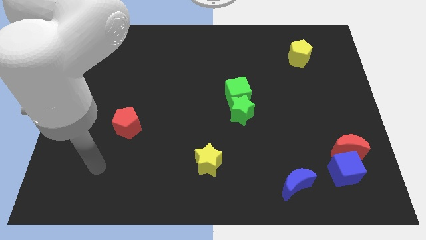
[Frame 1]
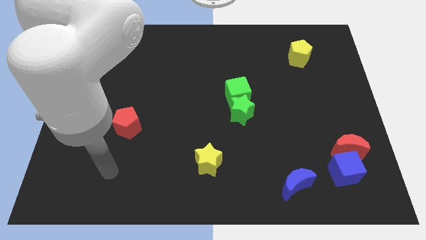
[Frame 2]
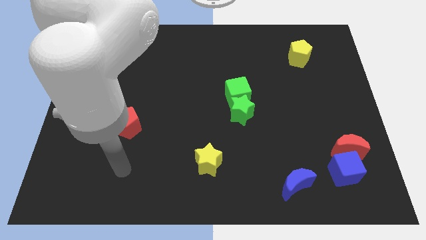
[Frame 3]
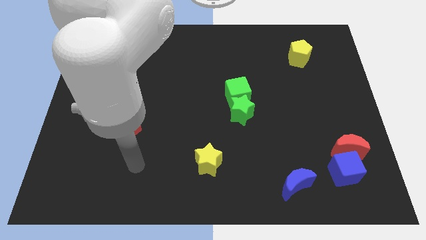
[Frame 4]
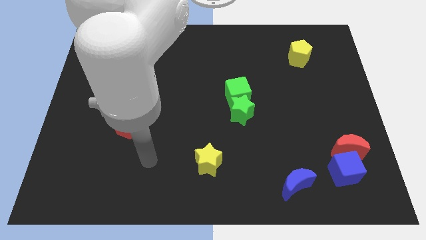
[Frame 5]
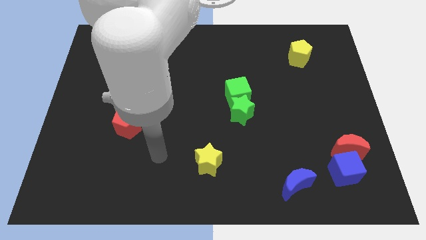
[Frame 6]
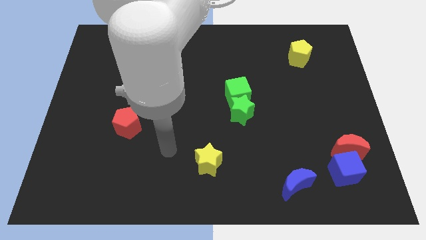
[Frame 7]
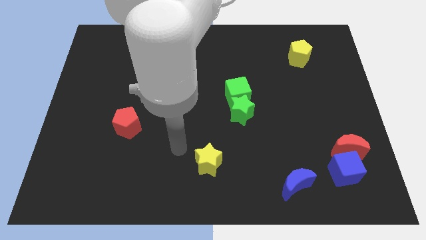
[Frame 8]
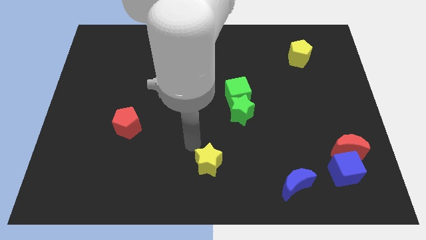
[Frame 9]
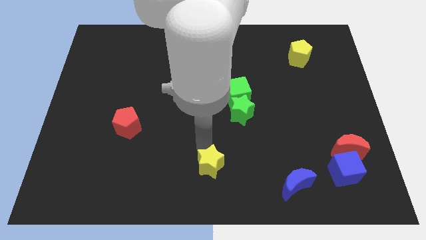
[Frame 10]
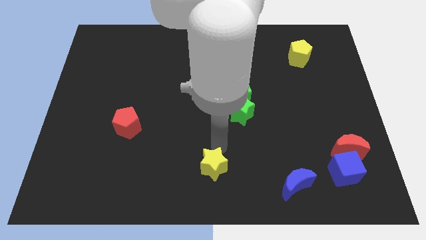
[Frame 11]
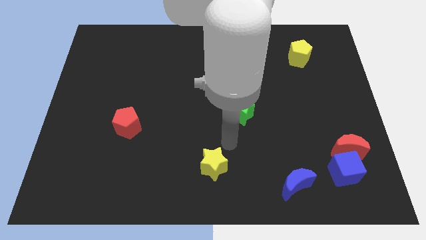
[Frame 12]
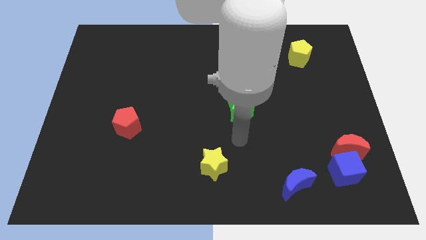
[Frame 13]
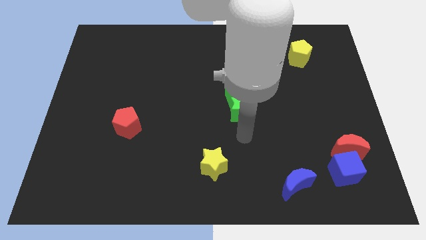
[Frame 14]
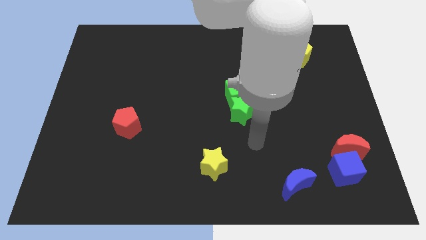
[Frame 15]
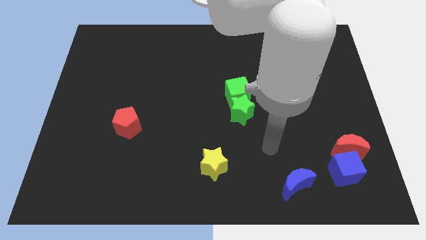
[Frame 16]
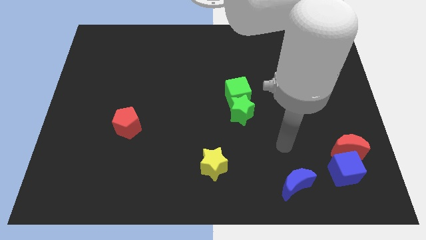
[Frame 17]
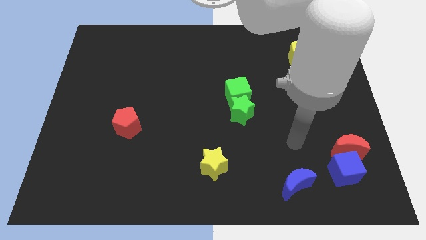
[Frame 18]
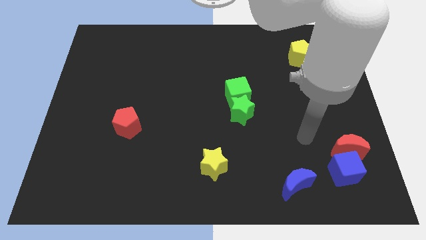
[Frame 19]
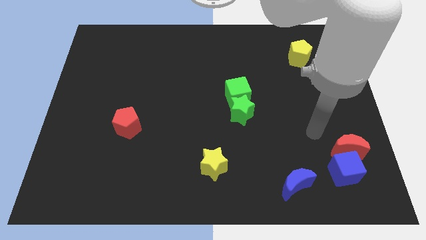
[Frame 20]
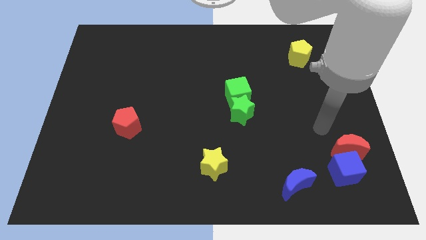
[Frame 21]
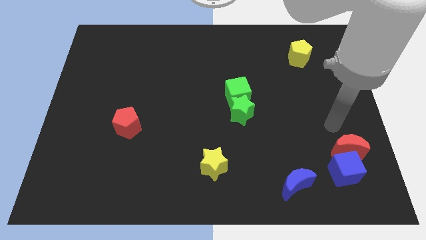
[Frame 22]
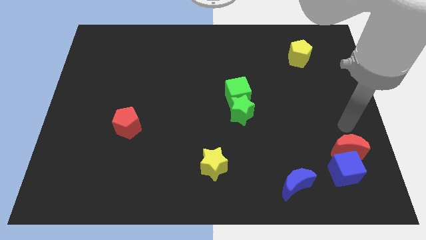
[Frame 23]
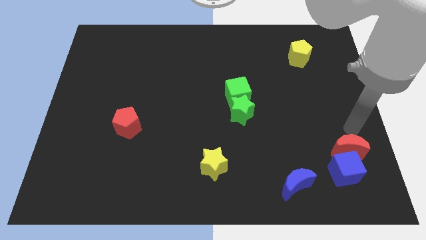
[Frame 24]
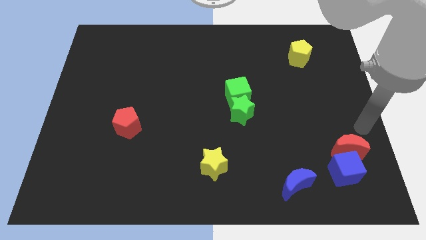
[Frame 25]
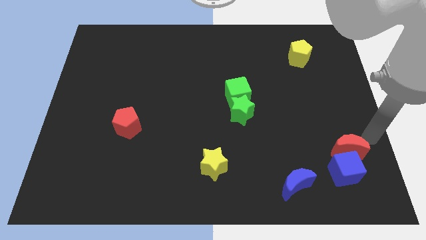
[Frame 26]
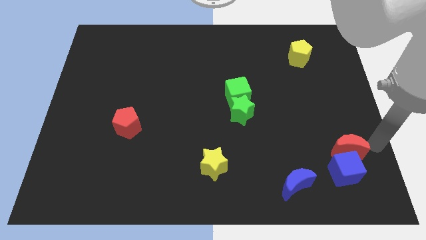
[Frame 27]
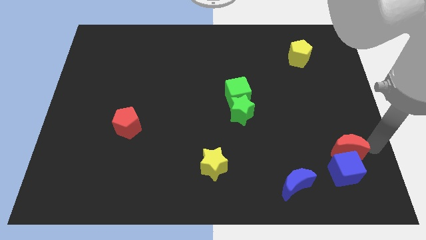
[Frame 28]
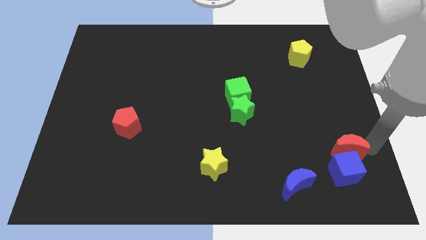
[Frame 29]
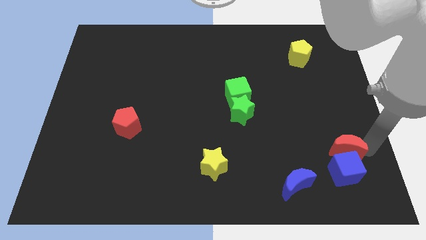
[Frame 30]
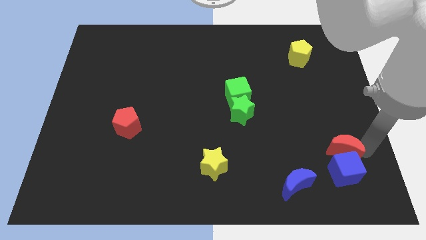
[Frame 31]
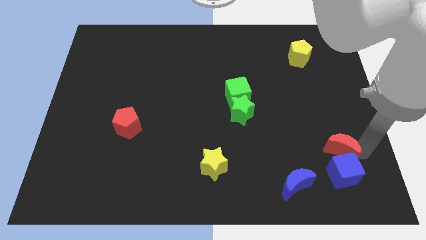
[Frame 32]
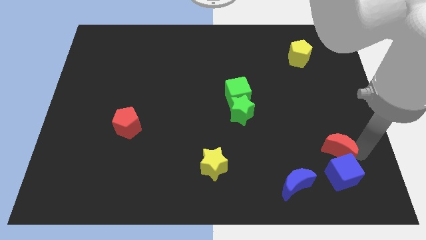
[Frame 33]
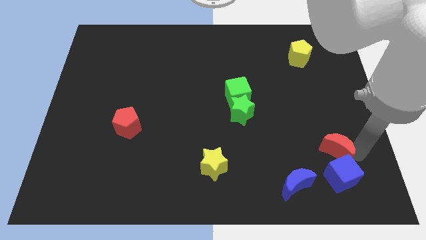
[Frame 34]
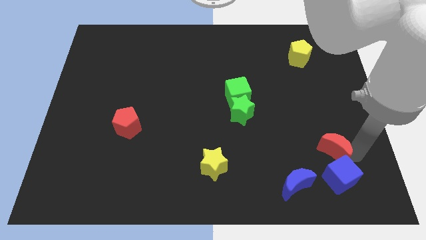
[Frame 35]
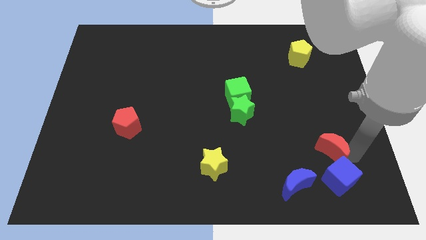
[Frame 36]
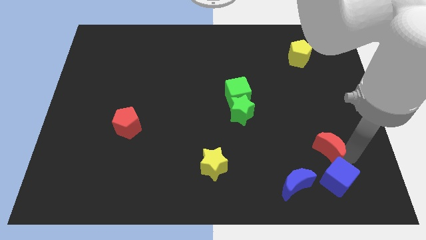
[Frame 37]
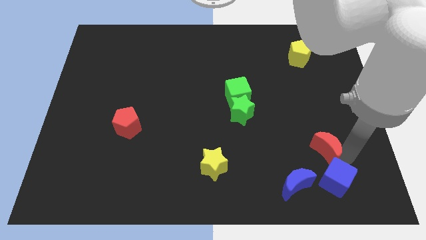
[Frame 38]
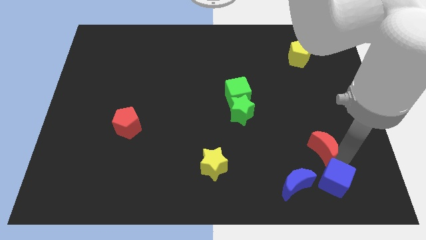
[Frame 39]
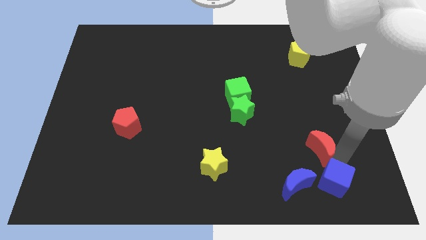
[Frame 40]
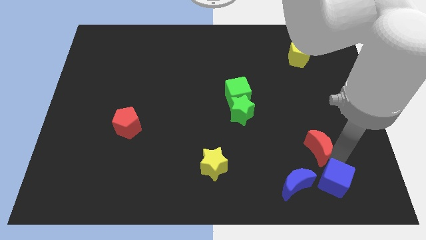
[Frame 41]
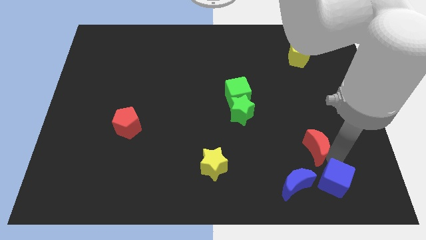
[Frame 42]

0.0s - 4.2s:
push the red moon to the left a bit

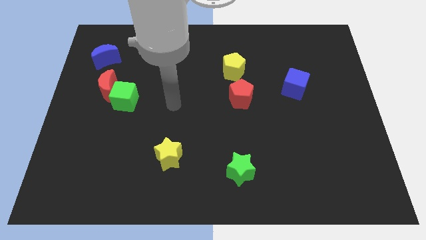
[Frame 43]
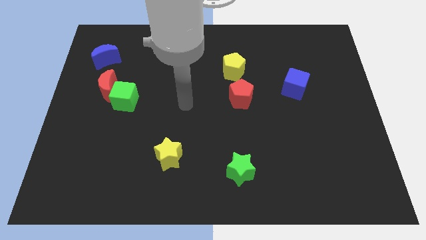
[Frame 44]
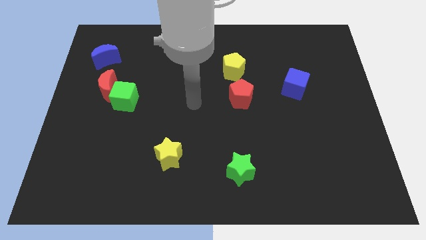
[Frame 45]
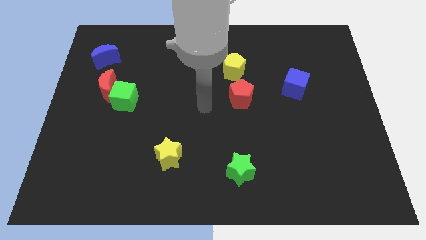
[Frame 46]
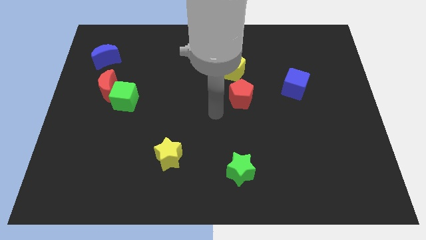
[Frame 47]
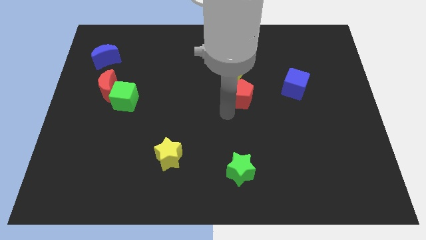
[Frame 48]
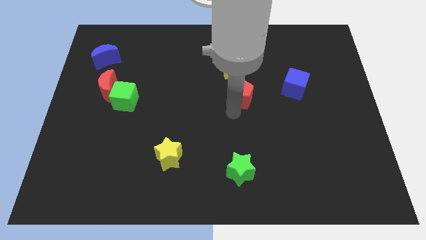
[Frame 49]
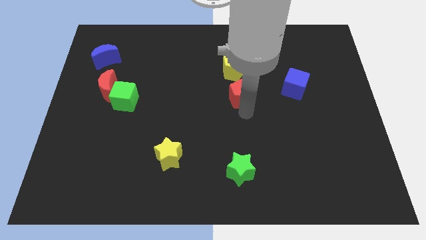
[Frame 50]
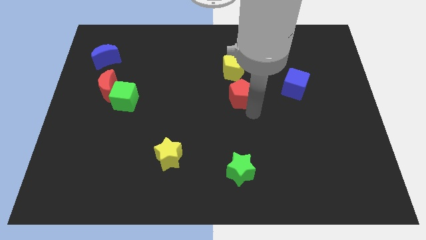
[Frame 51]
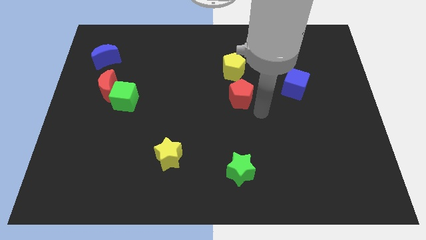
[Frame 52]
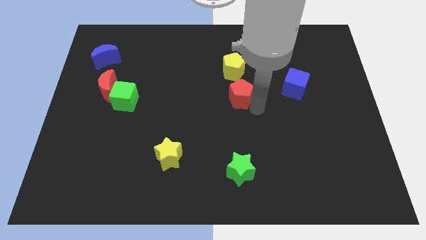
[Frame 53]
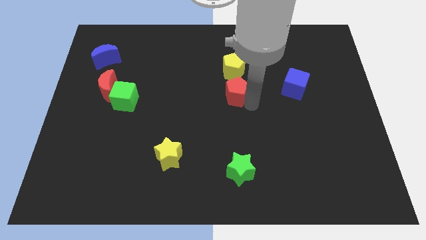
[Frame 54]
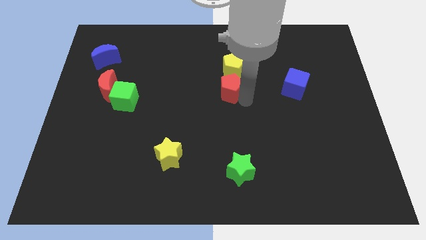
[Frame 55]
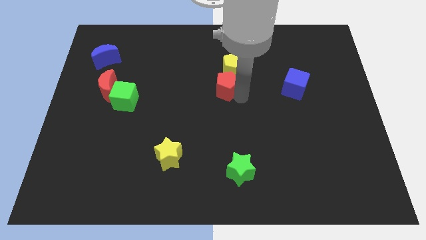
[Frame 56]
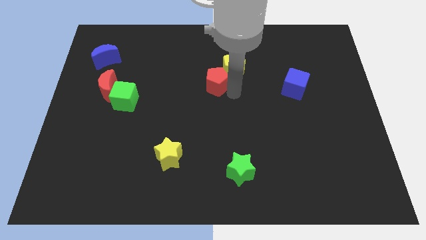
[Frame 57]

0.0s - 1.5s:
slightly push the red pentagon up and left

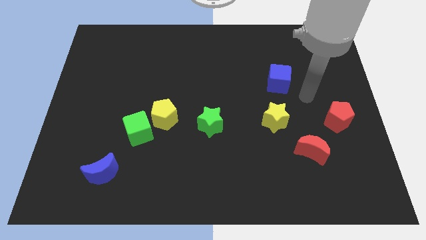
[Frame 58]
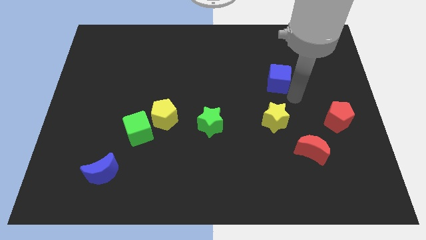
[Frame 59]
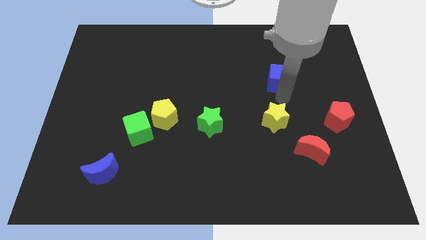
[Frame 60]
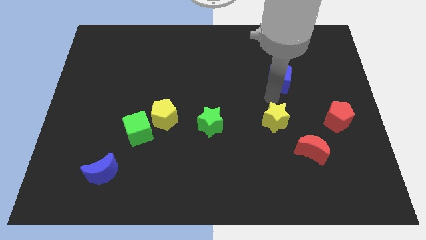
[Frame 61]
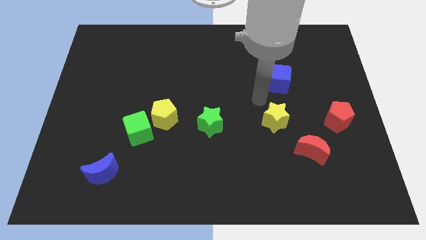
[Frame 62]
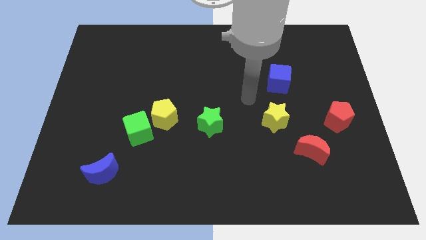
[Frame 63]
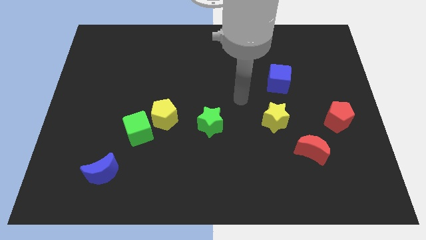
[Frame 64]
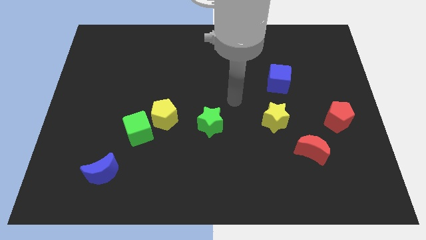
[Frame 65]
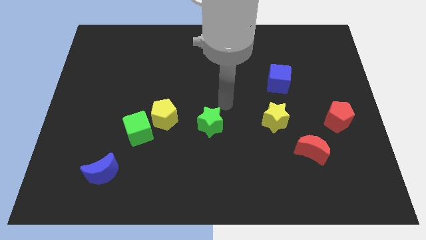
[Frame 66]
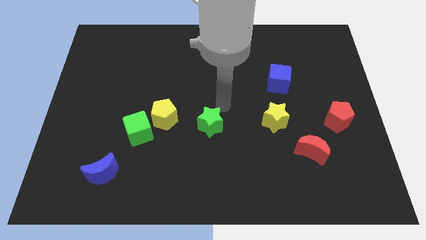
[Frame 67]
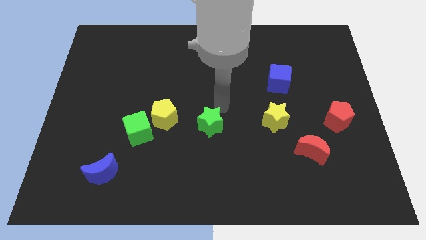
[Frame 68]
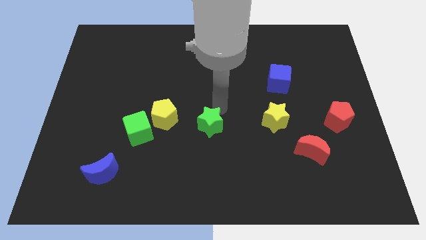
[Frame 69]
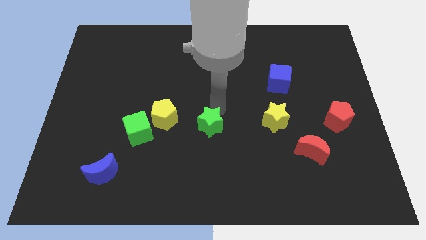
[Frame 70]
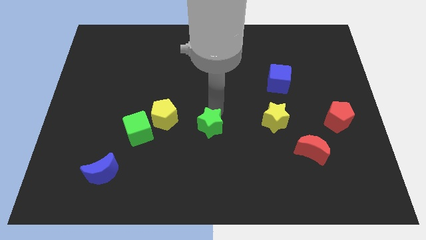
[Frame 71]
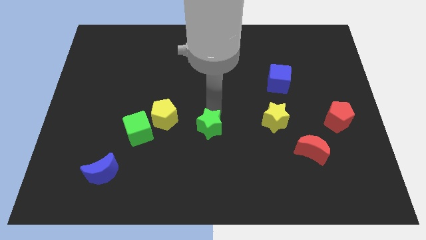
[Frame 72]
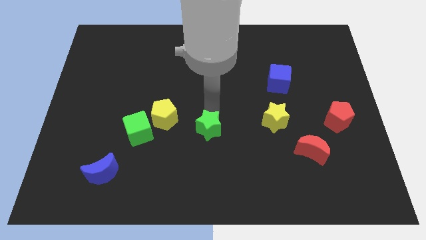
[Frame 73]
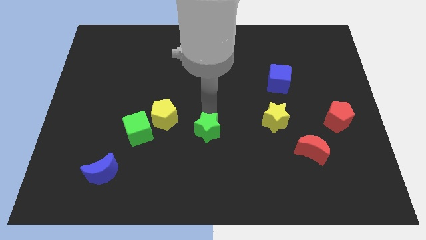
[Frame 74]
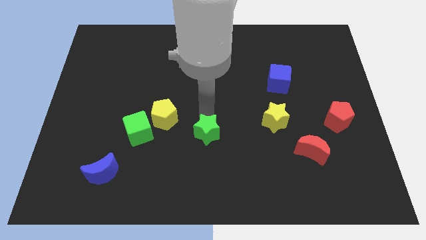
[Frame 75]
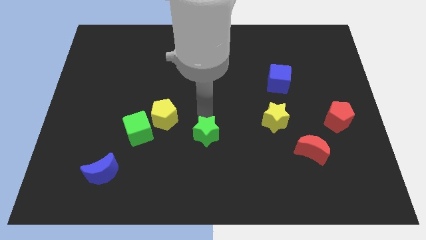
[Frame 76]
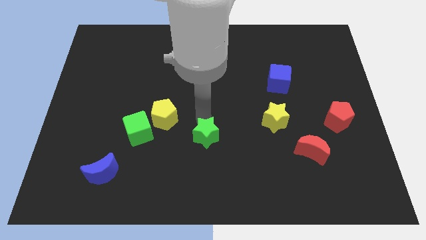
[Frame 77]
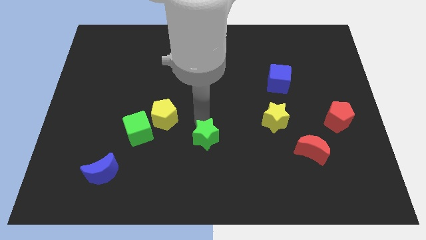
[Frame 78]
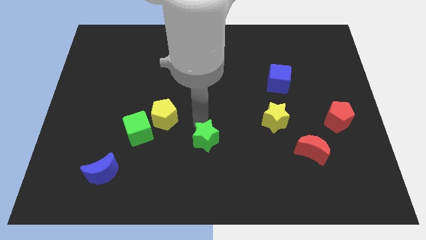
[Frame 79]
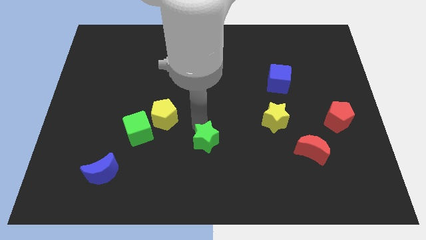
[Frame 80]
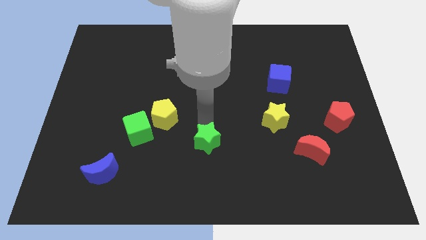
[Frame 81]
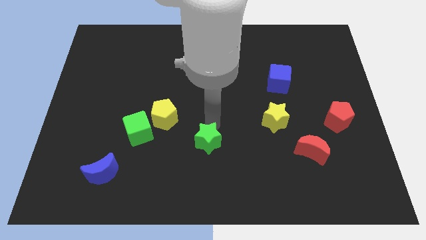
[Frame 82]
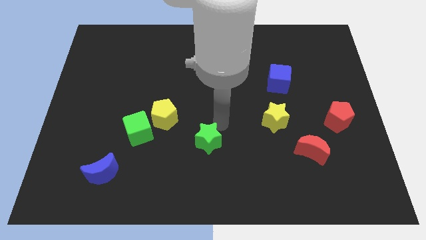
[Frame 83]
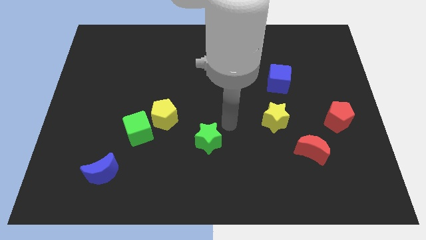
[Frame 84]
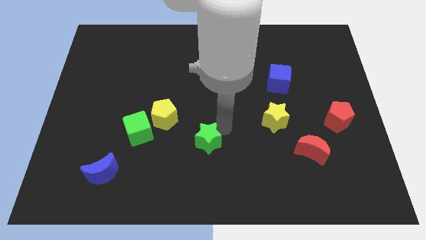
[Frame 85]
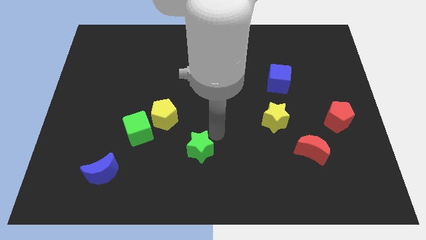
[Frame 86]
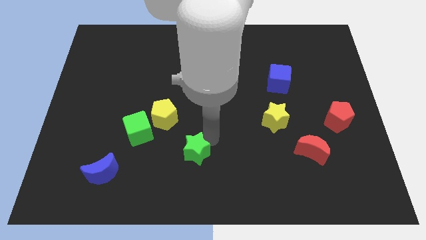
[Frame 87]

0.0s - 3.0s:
move the green star diagonally downwards and left slightly
